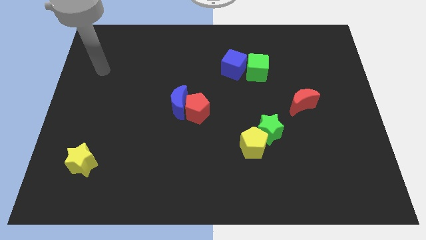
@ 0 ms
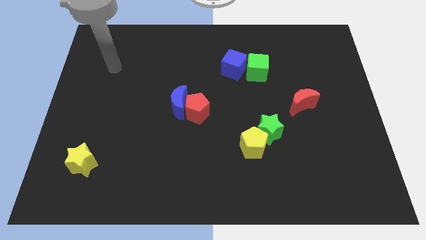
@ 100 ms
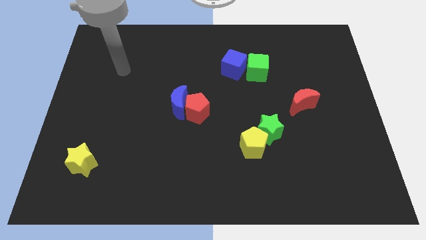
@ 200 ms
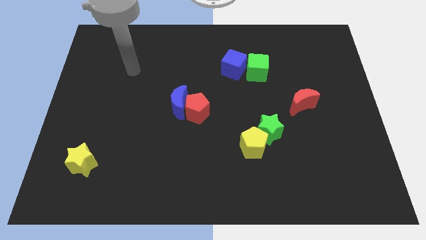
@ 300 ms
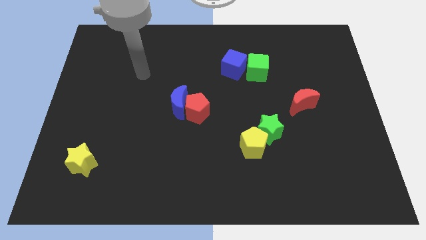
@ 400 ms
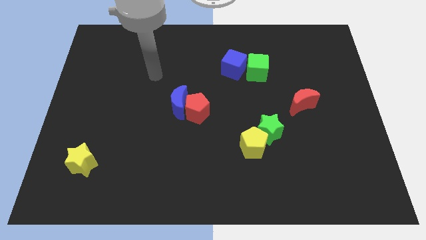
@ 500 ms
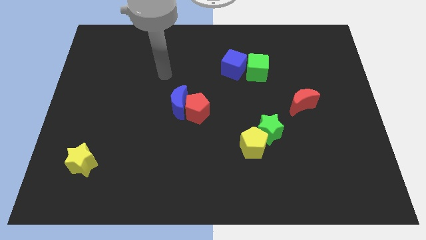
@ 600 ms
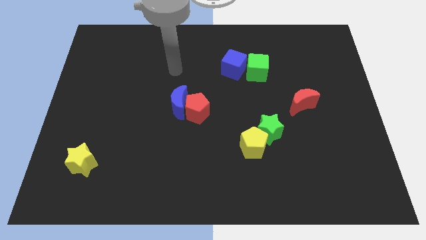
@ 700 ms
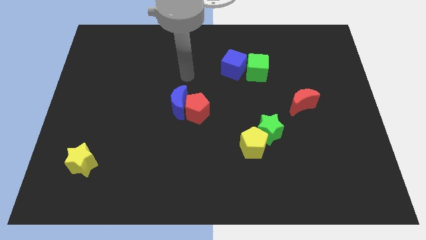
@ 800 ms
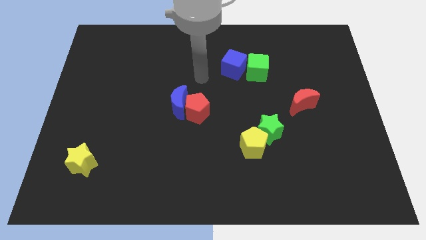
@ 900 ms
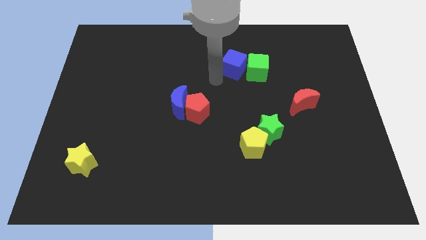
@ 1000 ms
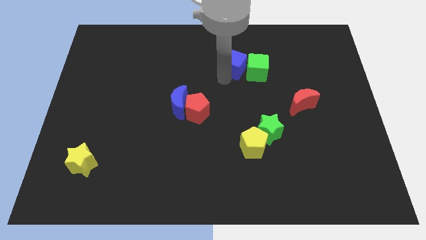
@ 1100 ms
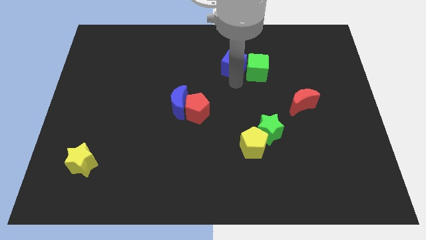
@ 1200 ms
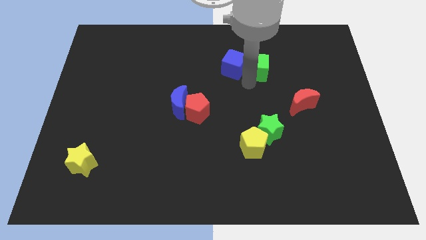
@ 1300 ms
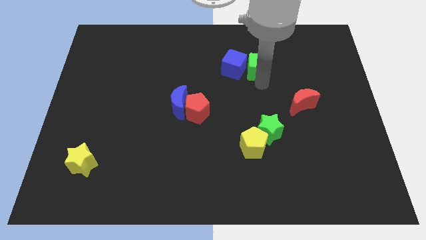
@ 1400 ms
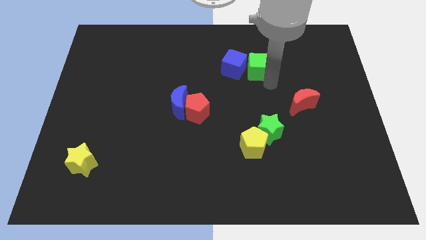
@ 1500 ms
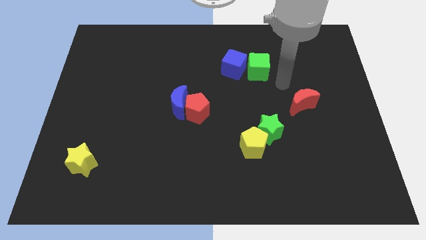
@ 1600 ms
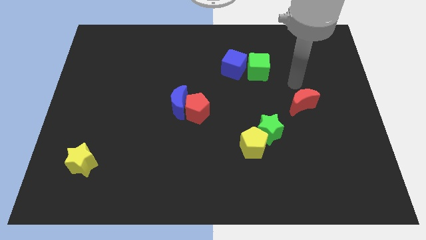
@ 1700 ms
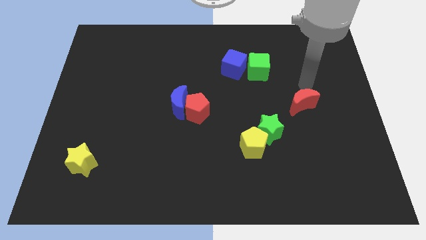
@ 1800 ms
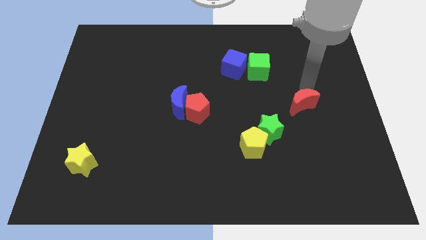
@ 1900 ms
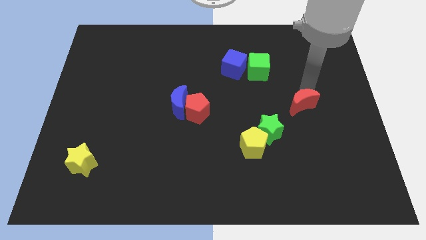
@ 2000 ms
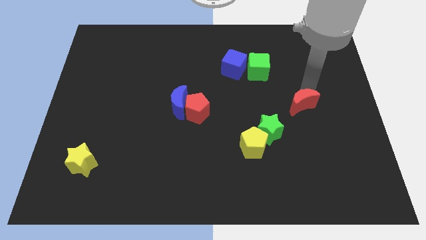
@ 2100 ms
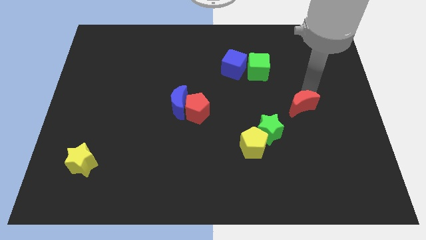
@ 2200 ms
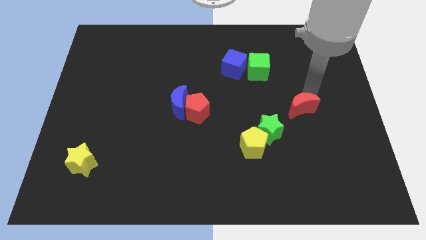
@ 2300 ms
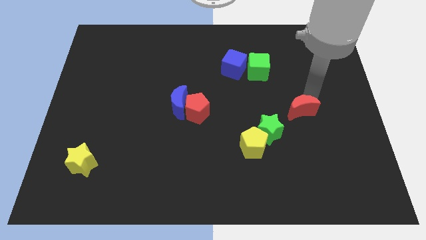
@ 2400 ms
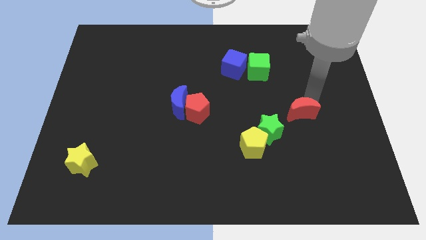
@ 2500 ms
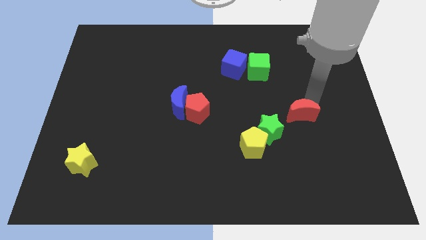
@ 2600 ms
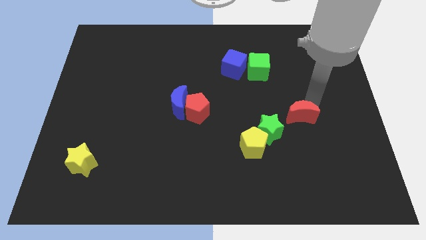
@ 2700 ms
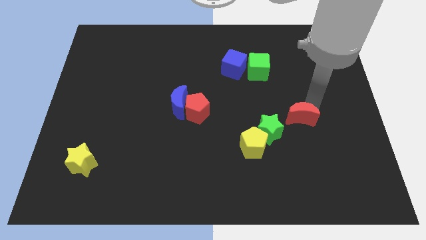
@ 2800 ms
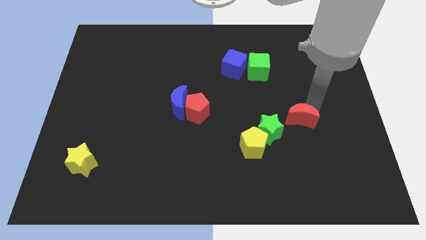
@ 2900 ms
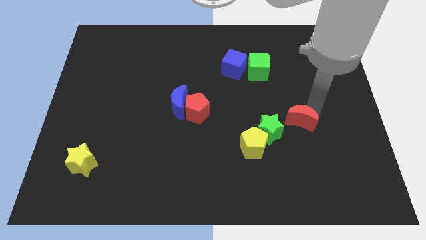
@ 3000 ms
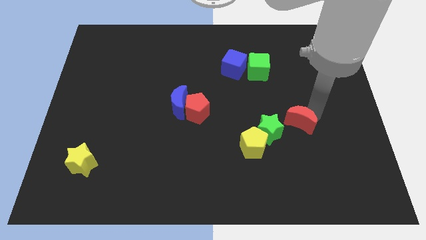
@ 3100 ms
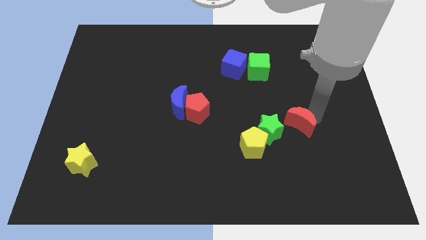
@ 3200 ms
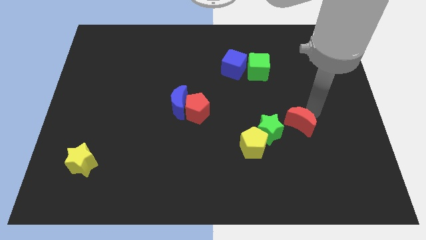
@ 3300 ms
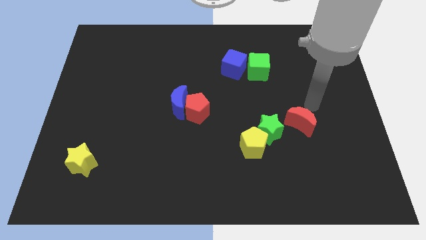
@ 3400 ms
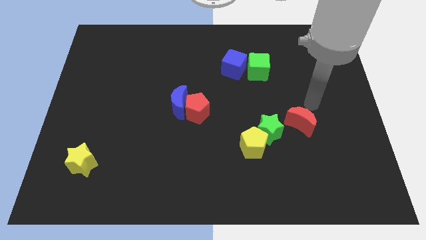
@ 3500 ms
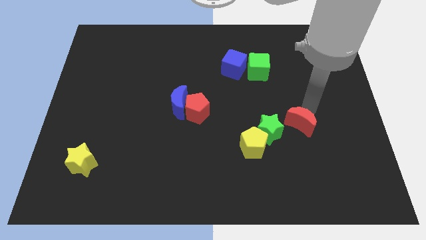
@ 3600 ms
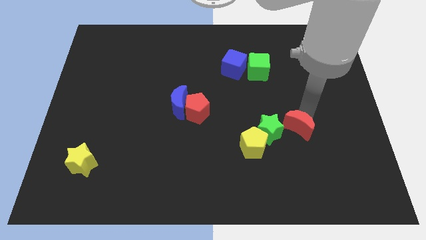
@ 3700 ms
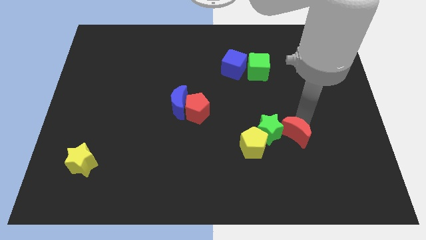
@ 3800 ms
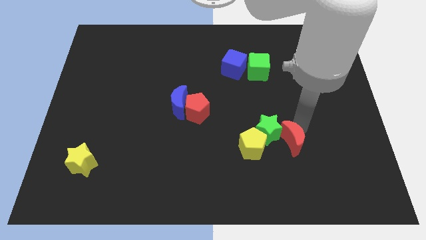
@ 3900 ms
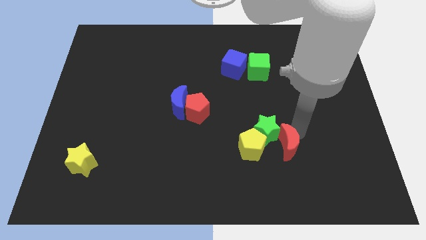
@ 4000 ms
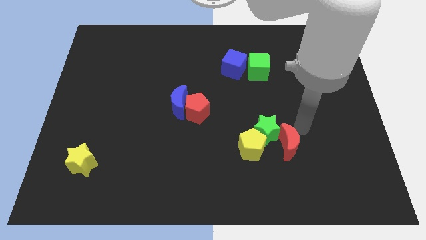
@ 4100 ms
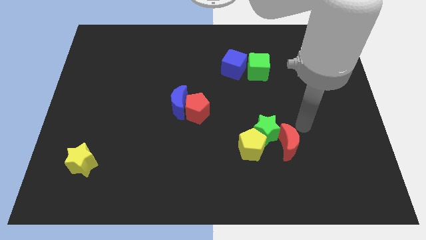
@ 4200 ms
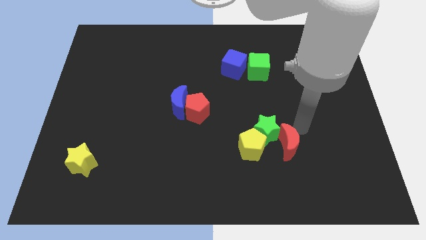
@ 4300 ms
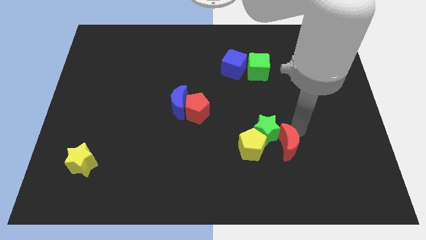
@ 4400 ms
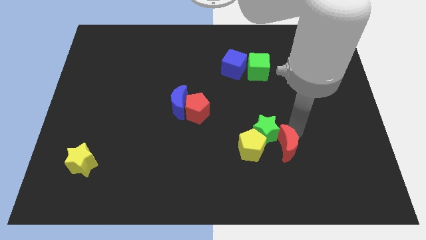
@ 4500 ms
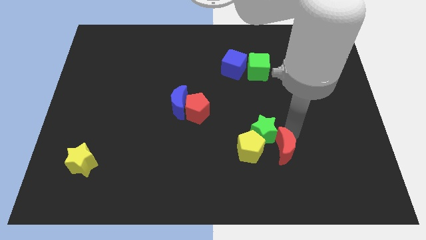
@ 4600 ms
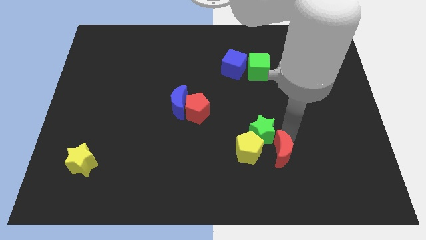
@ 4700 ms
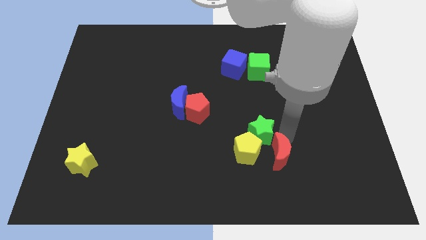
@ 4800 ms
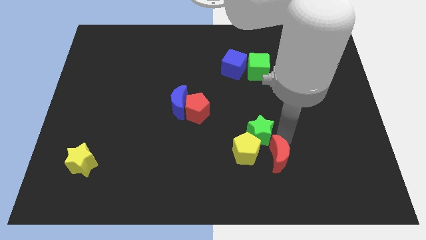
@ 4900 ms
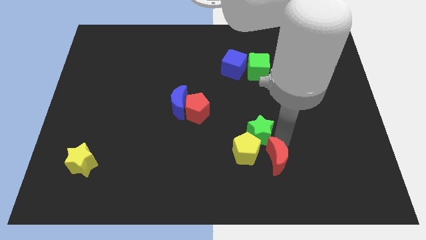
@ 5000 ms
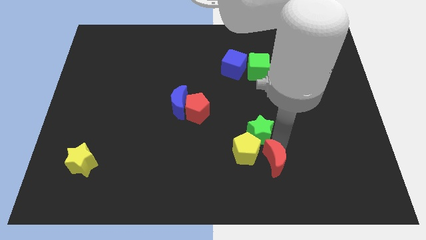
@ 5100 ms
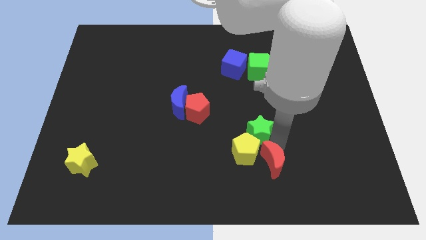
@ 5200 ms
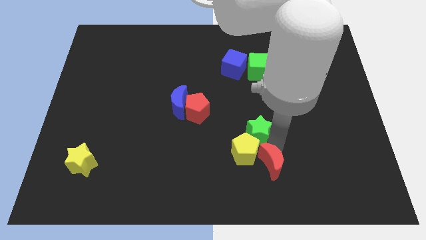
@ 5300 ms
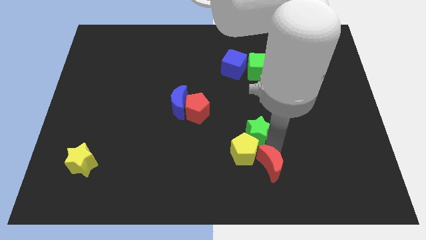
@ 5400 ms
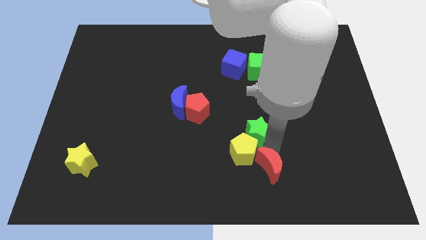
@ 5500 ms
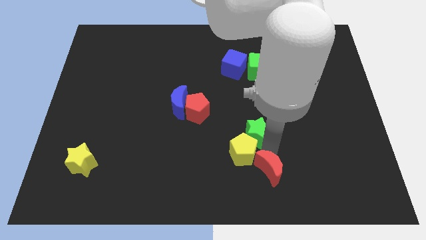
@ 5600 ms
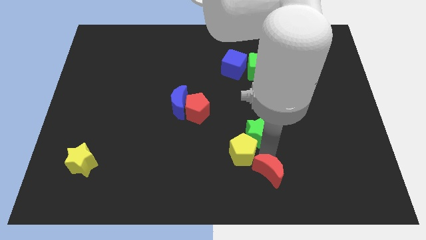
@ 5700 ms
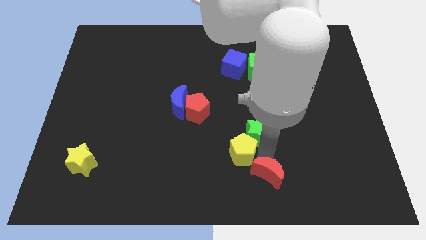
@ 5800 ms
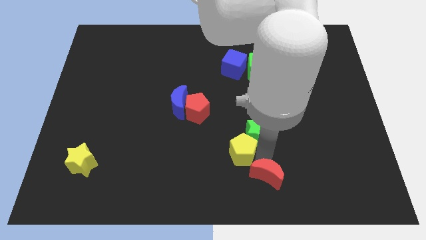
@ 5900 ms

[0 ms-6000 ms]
push the red moon to the bottom side

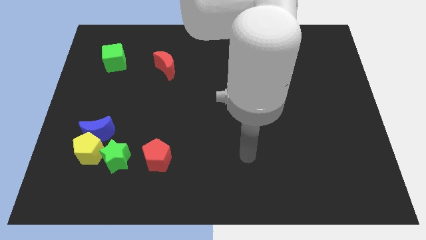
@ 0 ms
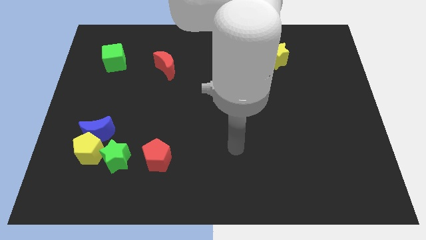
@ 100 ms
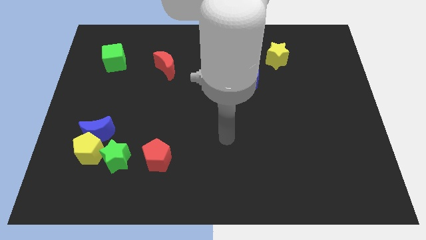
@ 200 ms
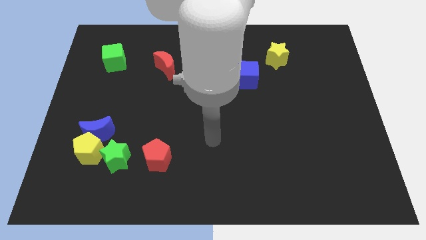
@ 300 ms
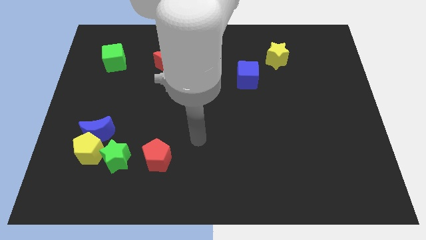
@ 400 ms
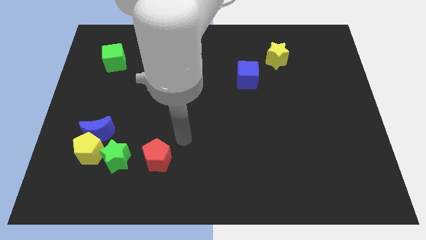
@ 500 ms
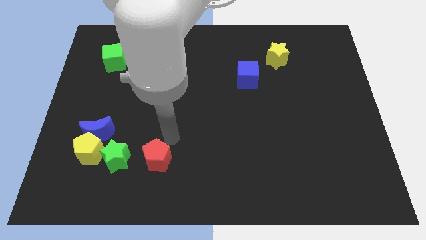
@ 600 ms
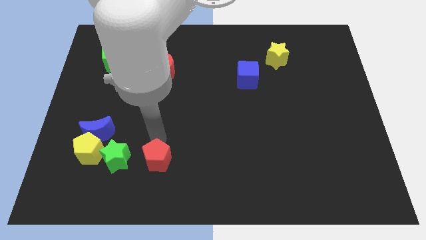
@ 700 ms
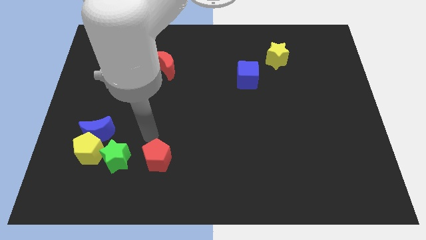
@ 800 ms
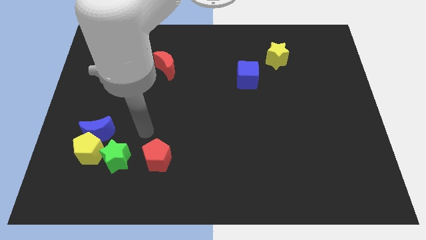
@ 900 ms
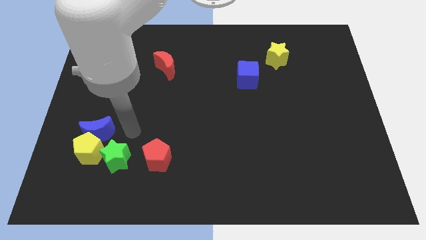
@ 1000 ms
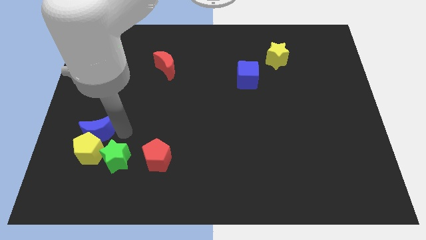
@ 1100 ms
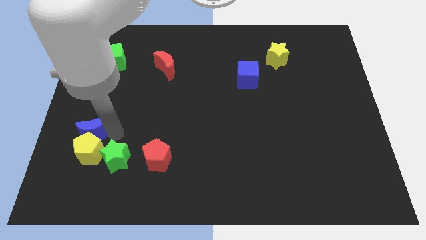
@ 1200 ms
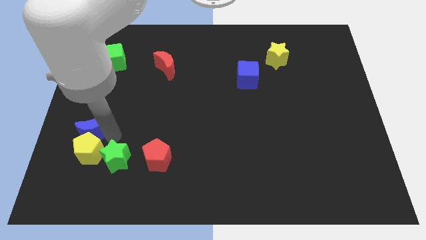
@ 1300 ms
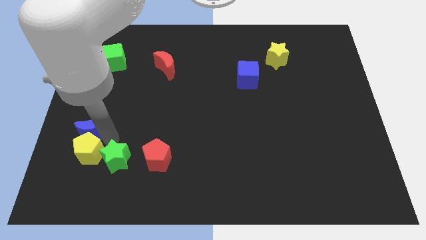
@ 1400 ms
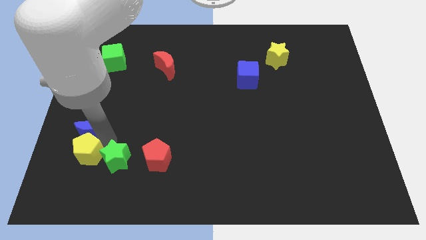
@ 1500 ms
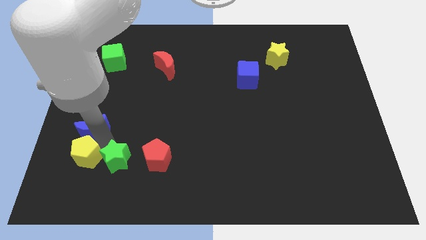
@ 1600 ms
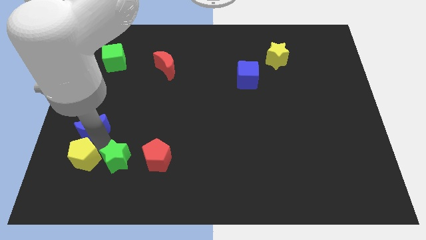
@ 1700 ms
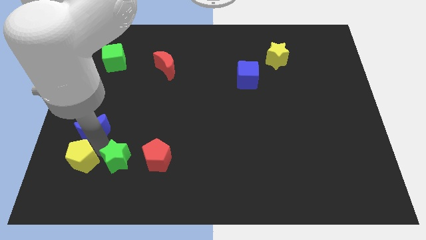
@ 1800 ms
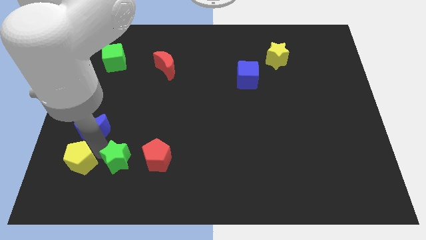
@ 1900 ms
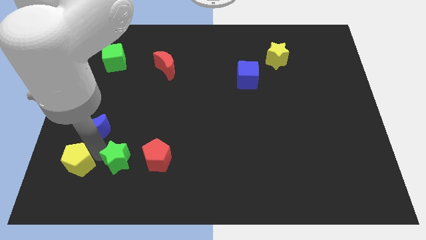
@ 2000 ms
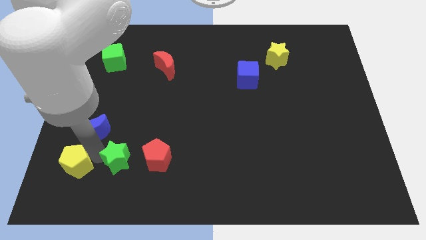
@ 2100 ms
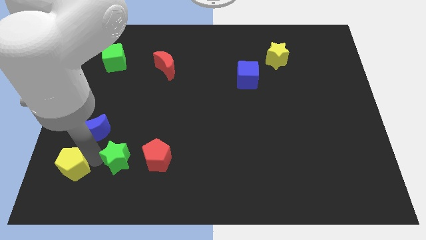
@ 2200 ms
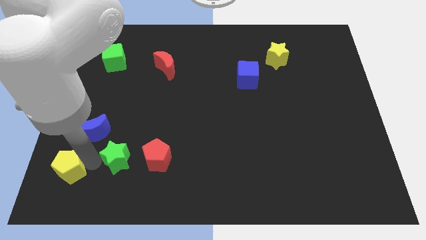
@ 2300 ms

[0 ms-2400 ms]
slide the yellow pentagon to the bottom left corner
